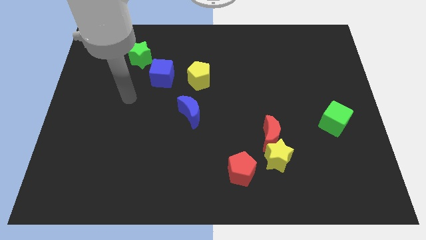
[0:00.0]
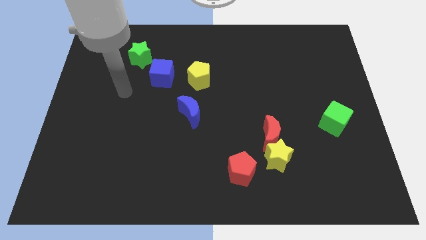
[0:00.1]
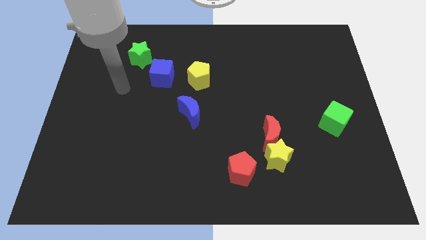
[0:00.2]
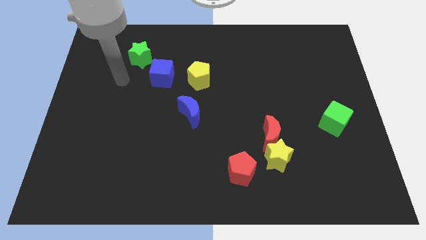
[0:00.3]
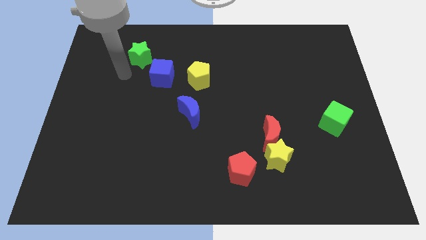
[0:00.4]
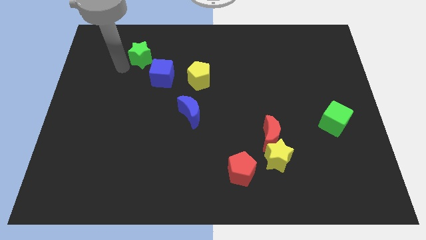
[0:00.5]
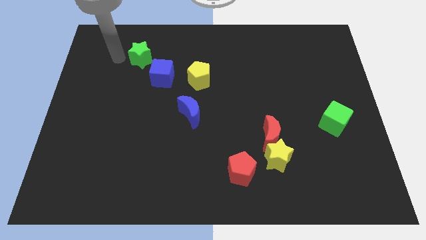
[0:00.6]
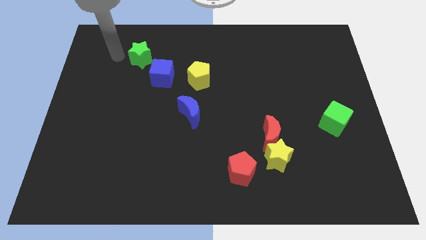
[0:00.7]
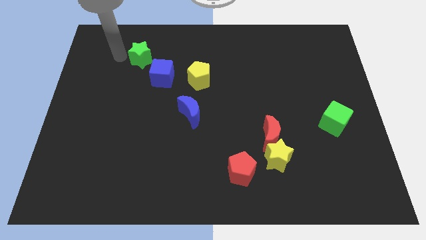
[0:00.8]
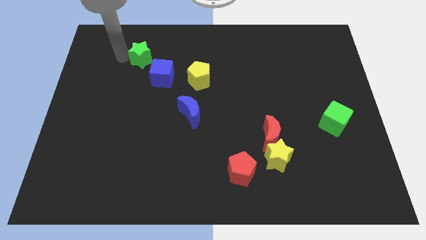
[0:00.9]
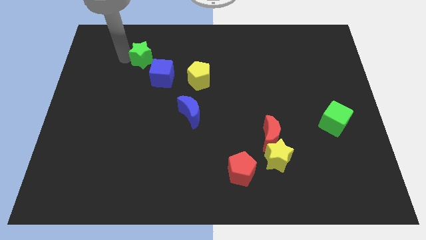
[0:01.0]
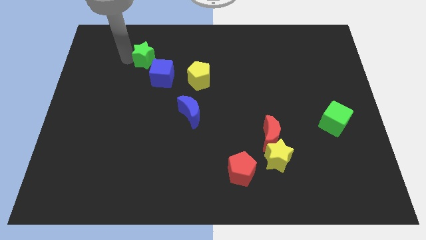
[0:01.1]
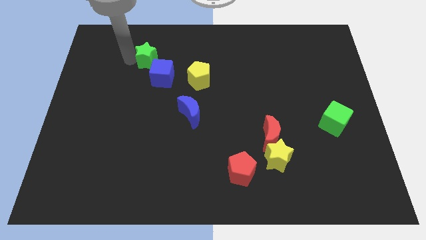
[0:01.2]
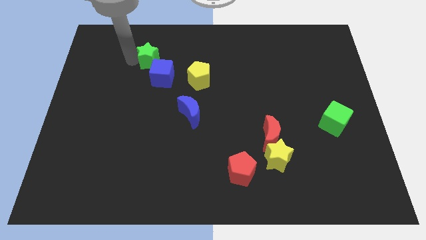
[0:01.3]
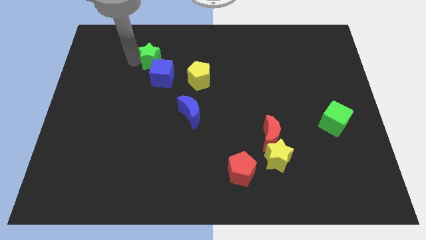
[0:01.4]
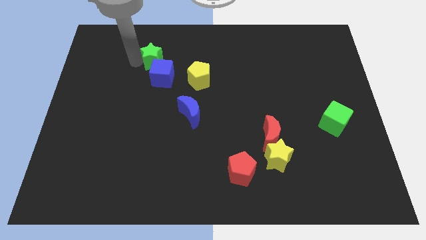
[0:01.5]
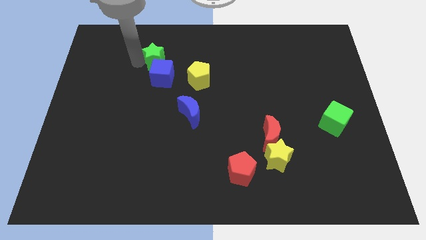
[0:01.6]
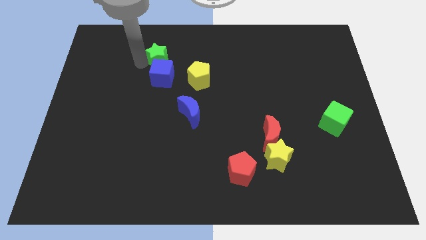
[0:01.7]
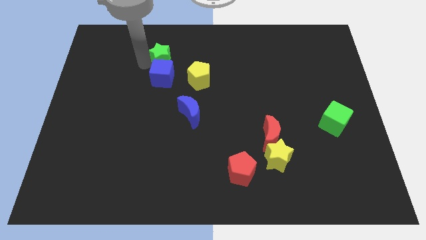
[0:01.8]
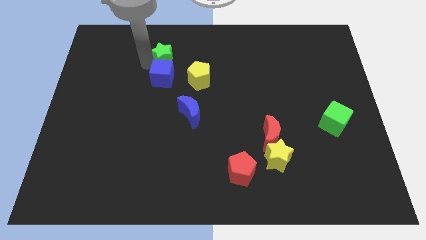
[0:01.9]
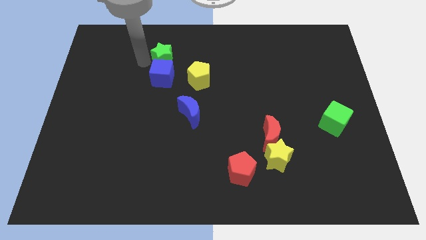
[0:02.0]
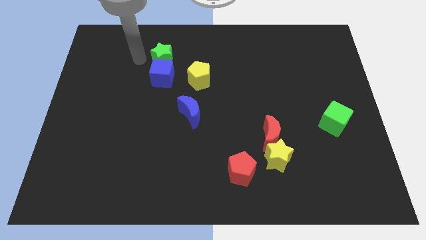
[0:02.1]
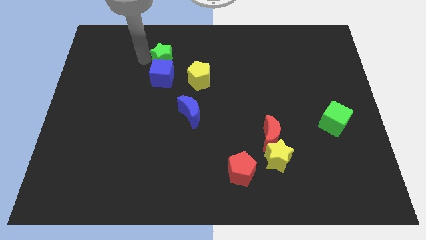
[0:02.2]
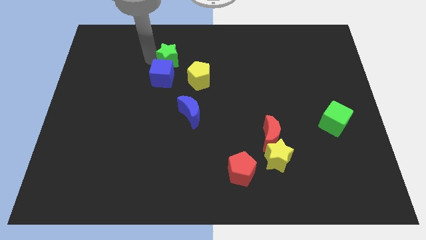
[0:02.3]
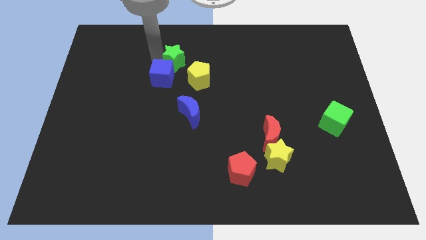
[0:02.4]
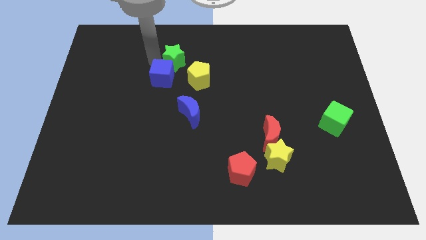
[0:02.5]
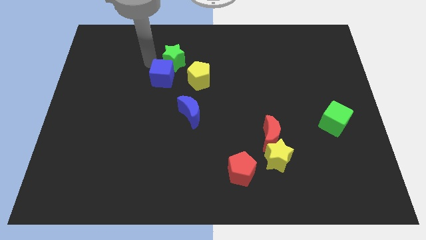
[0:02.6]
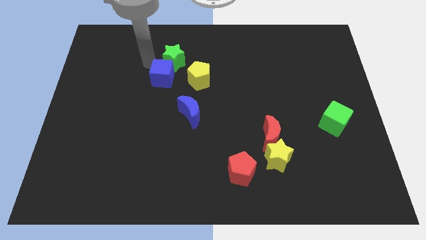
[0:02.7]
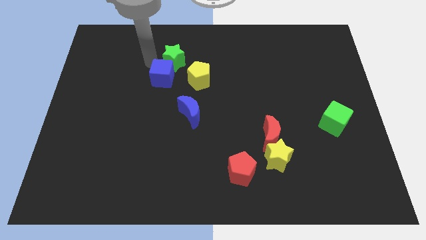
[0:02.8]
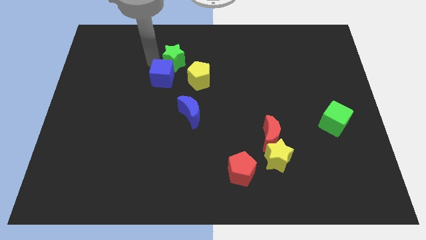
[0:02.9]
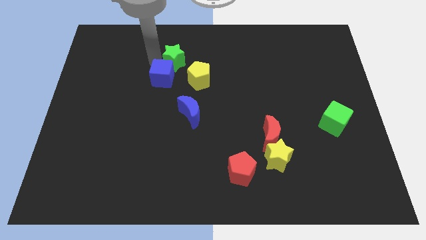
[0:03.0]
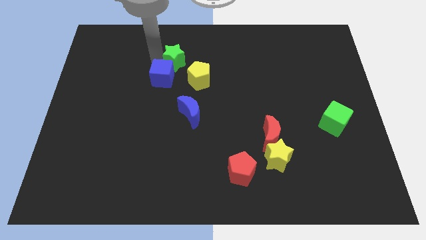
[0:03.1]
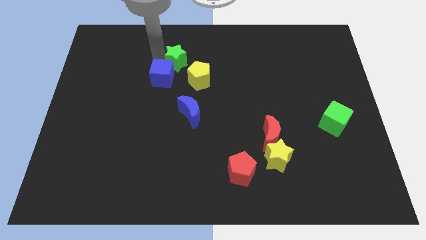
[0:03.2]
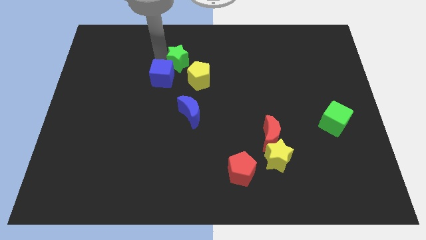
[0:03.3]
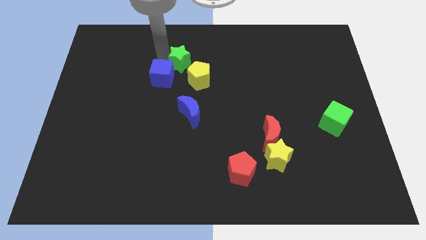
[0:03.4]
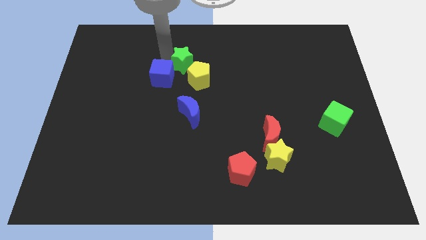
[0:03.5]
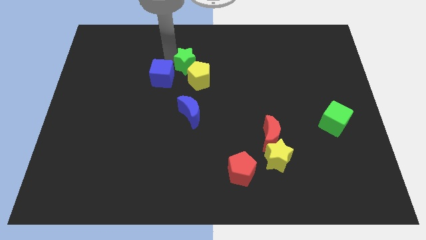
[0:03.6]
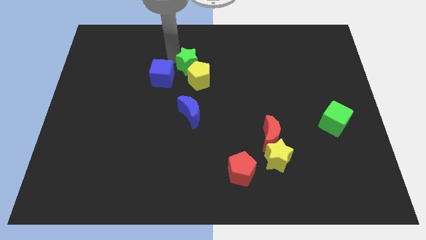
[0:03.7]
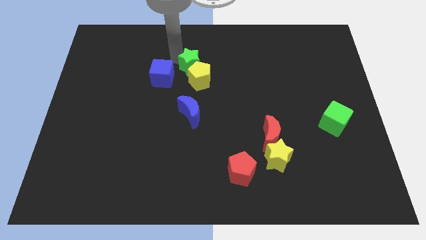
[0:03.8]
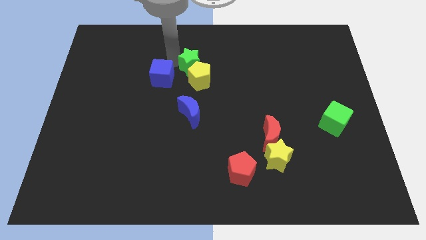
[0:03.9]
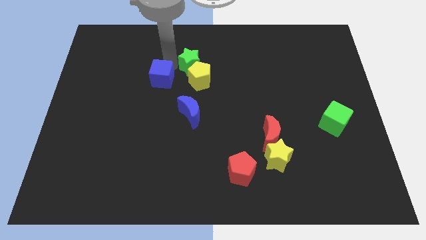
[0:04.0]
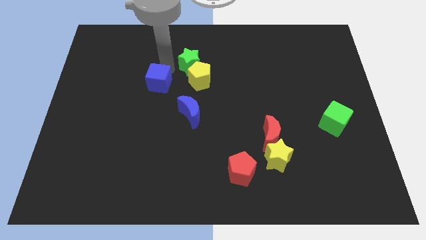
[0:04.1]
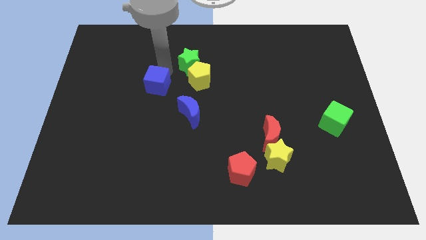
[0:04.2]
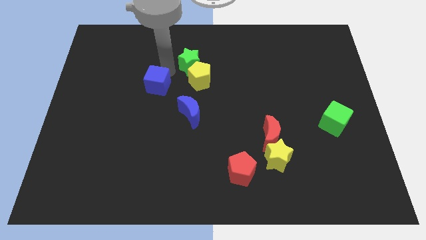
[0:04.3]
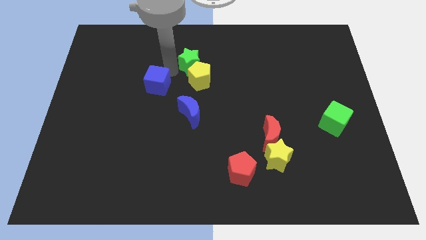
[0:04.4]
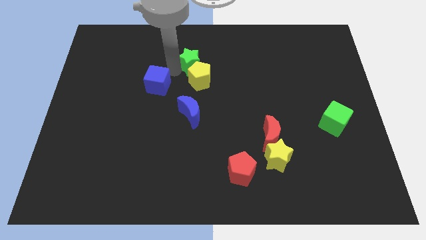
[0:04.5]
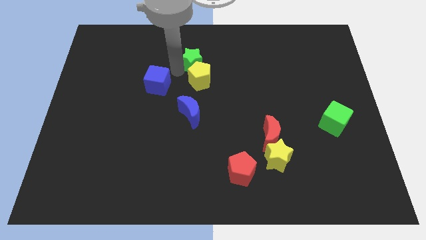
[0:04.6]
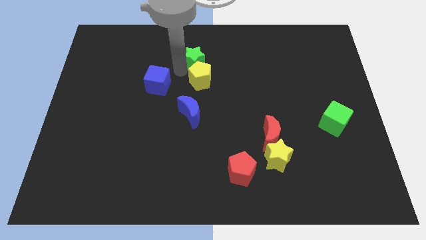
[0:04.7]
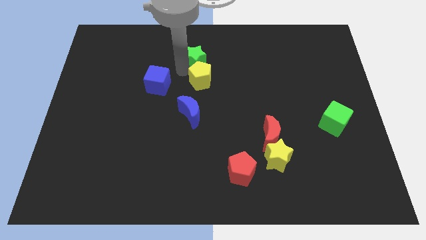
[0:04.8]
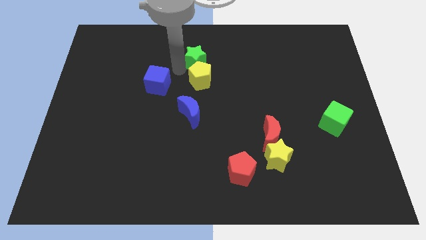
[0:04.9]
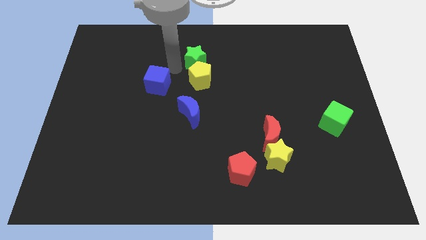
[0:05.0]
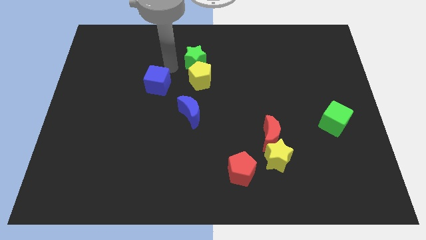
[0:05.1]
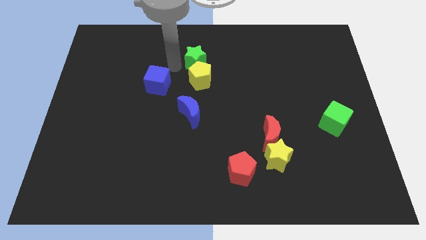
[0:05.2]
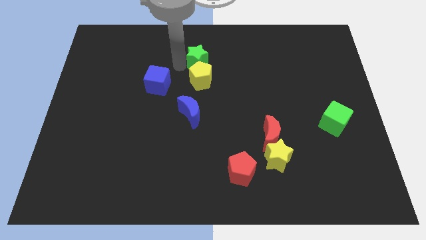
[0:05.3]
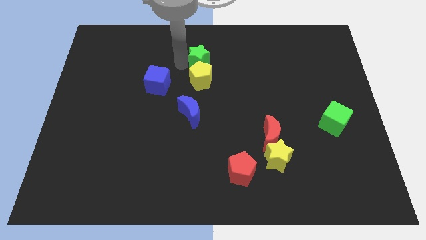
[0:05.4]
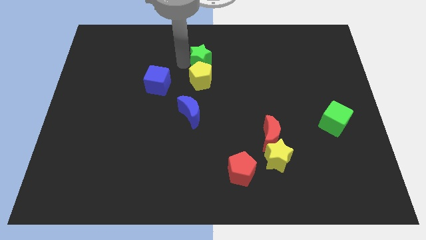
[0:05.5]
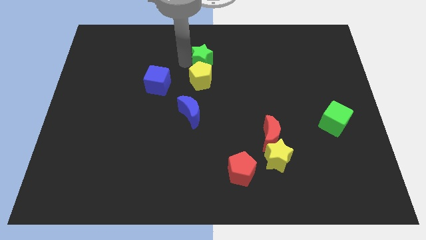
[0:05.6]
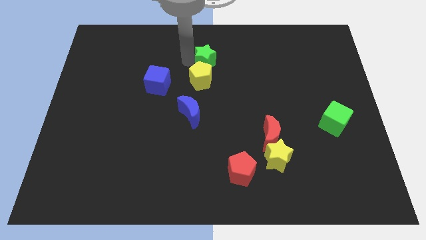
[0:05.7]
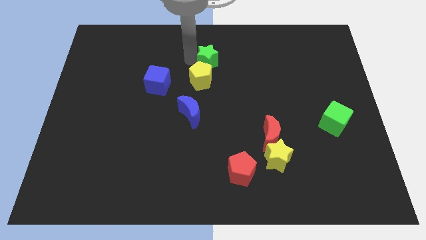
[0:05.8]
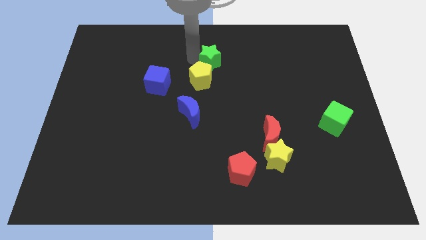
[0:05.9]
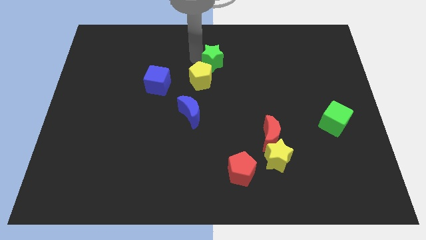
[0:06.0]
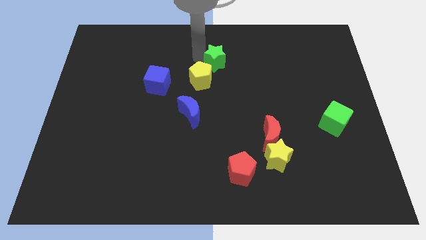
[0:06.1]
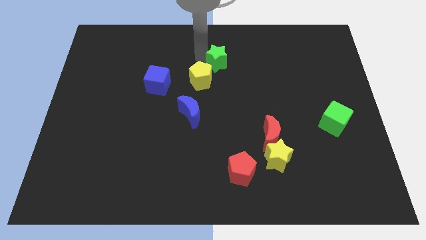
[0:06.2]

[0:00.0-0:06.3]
move the green star to the right

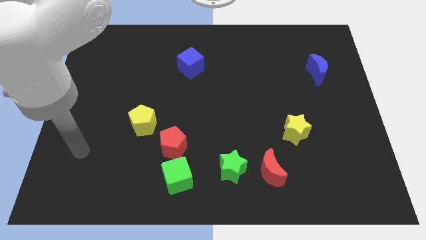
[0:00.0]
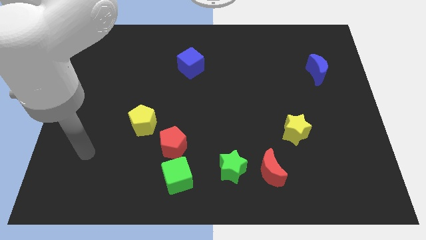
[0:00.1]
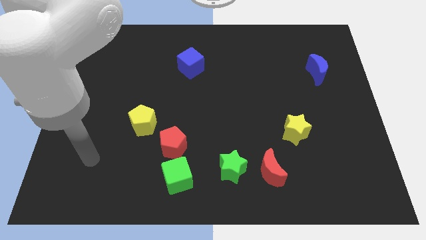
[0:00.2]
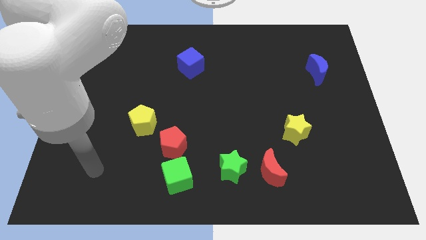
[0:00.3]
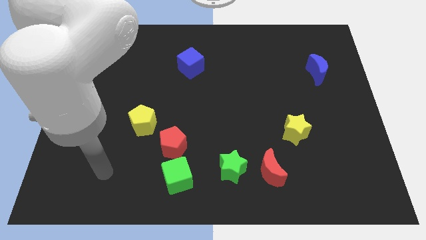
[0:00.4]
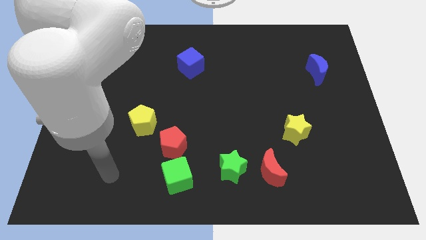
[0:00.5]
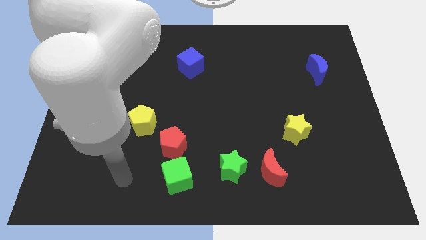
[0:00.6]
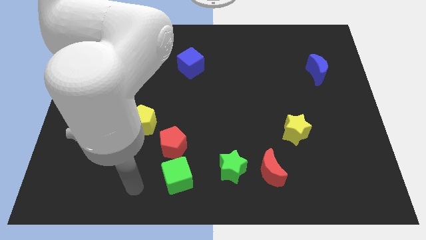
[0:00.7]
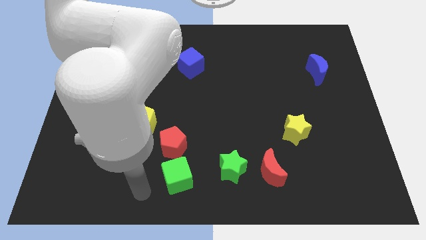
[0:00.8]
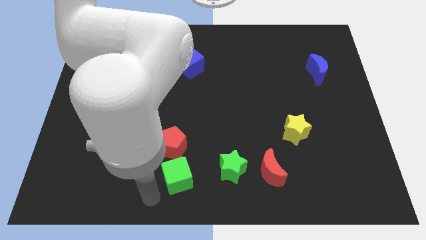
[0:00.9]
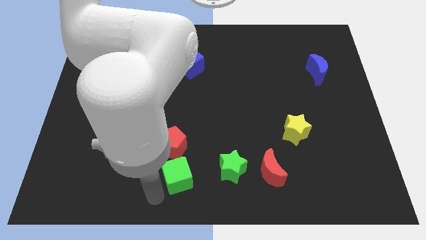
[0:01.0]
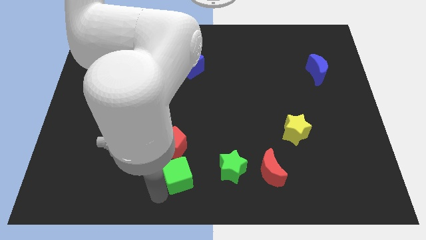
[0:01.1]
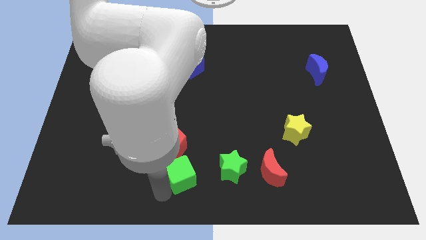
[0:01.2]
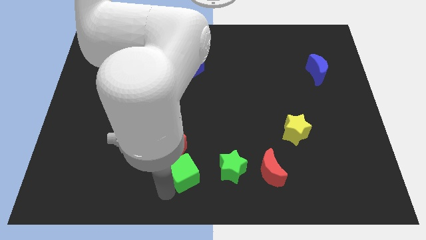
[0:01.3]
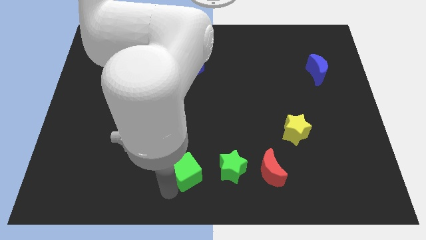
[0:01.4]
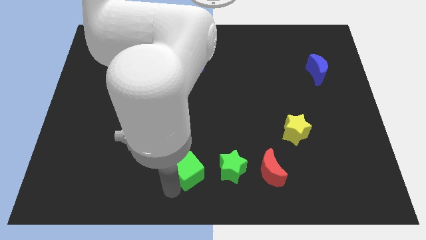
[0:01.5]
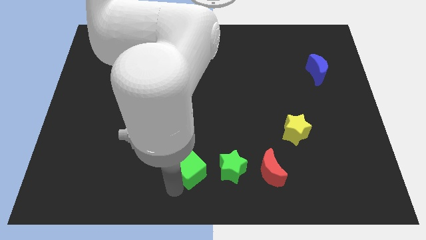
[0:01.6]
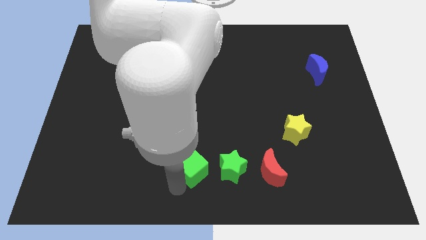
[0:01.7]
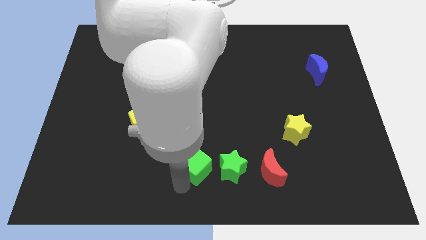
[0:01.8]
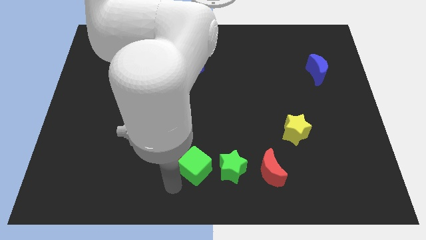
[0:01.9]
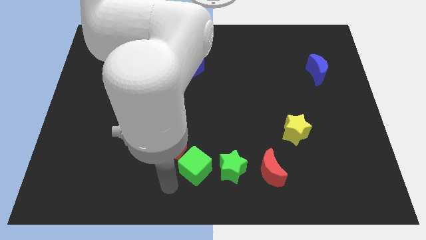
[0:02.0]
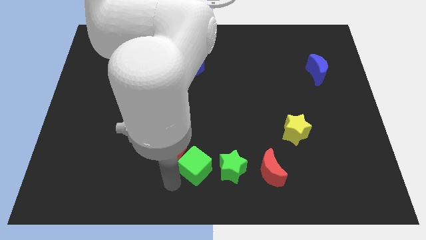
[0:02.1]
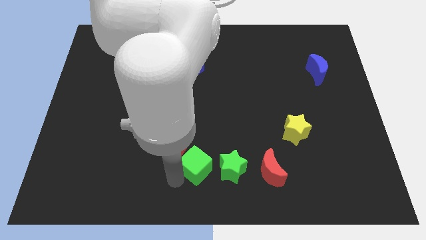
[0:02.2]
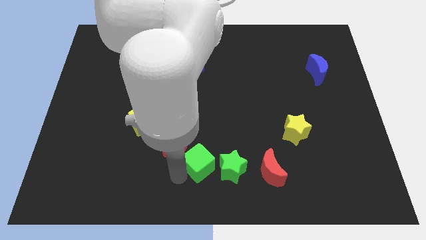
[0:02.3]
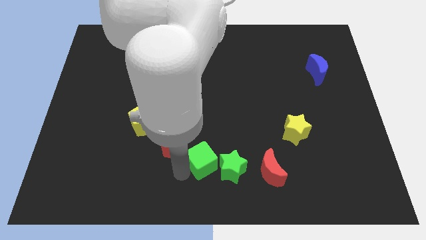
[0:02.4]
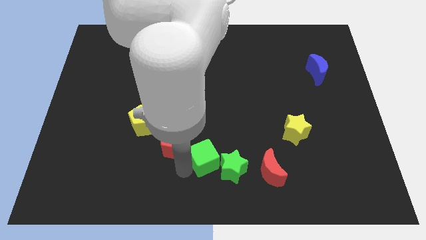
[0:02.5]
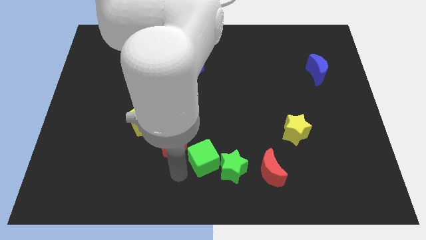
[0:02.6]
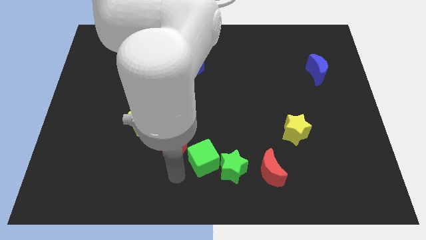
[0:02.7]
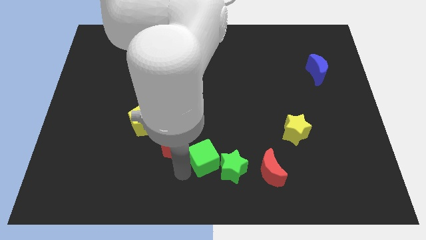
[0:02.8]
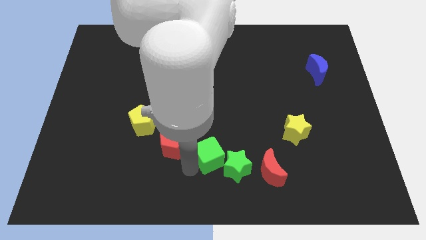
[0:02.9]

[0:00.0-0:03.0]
slide the green cube upwards and right somewhat
